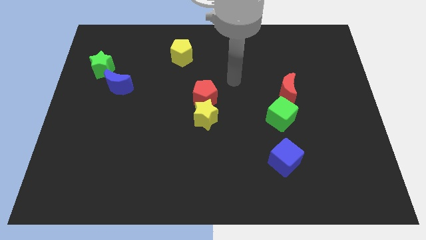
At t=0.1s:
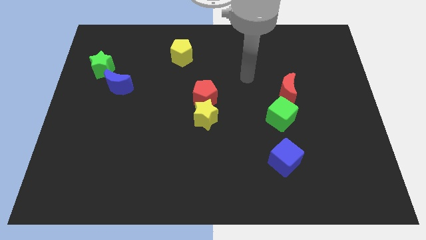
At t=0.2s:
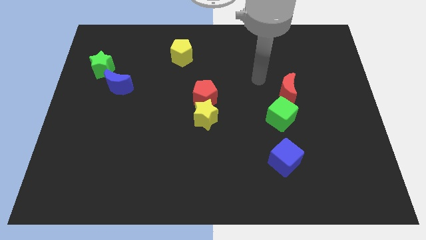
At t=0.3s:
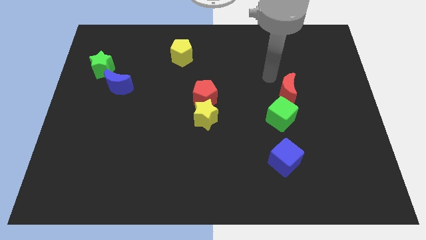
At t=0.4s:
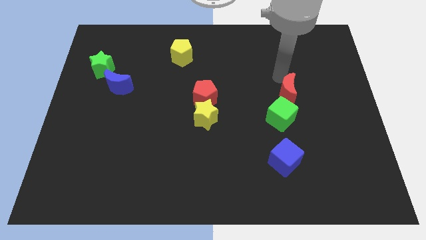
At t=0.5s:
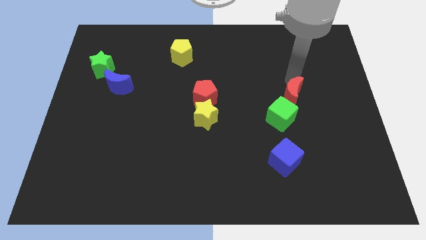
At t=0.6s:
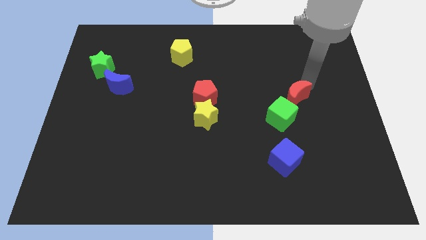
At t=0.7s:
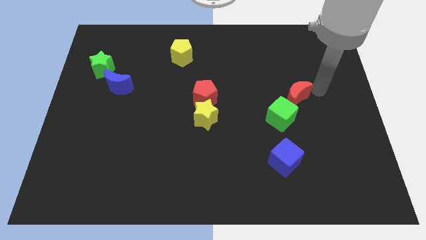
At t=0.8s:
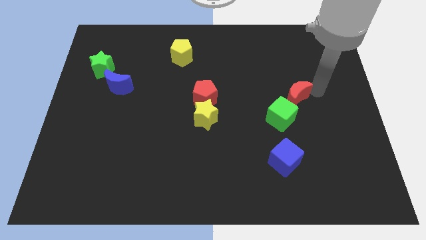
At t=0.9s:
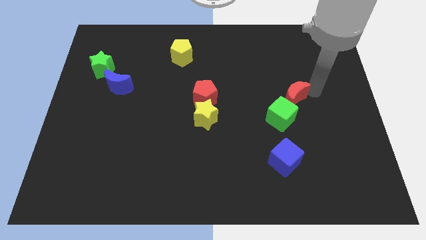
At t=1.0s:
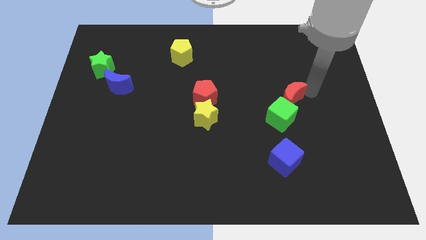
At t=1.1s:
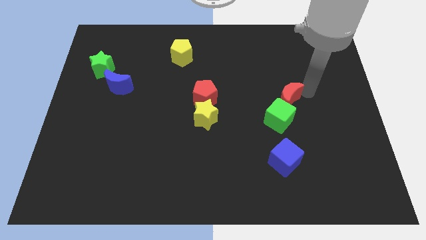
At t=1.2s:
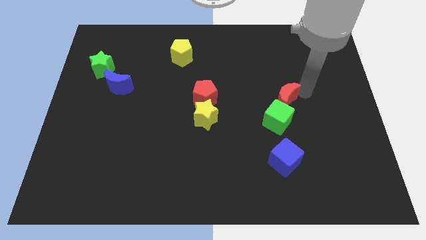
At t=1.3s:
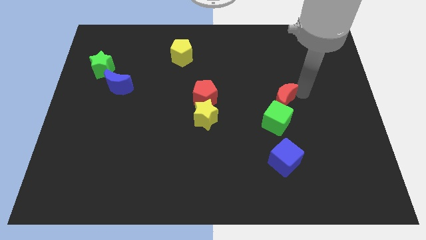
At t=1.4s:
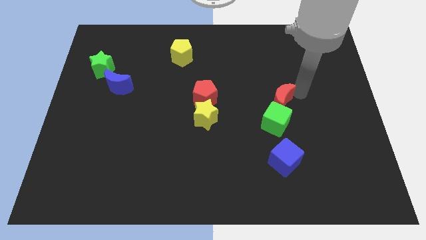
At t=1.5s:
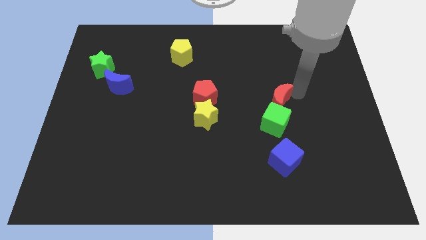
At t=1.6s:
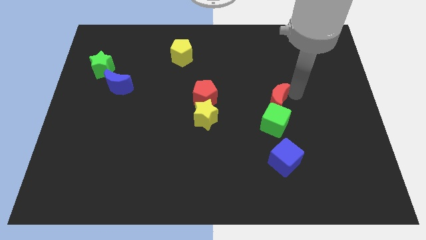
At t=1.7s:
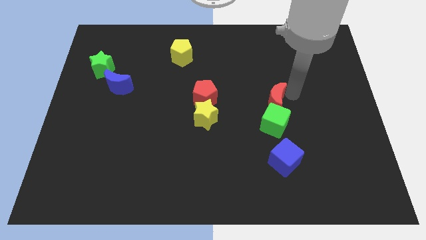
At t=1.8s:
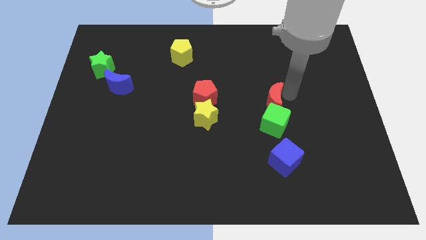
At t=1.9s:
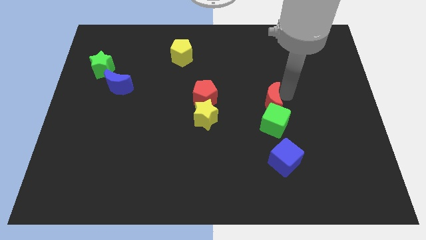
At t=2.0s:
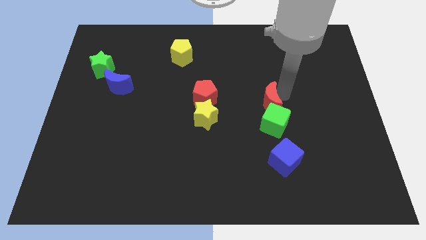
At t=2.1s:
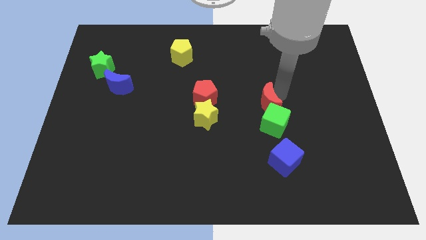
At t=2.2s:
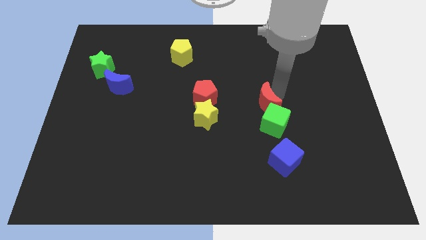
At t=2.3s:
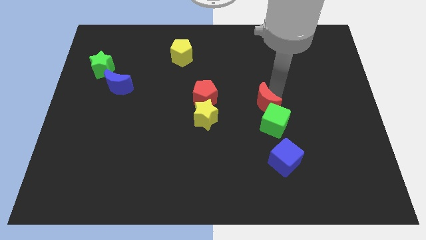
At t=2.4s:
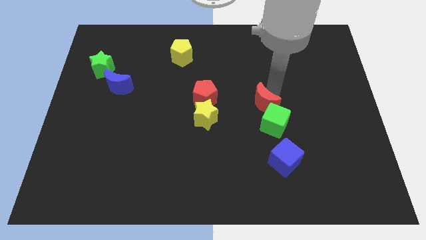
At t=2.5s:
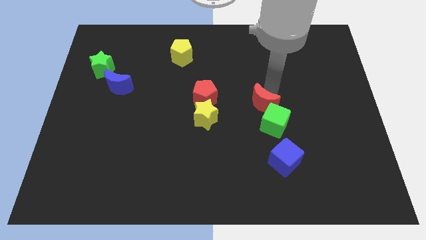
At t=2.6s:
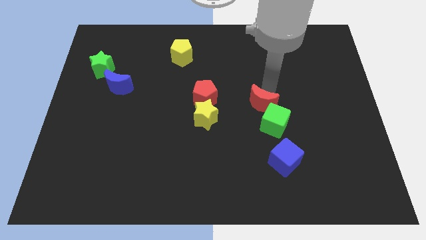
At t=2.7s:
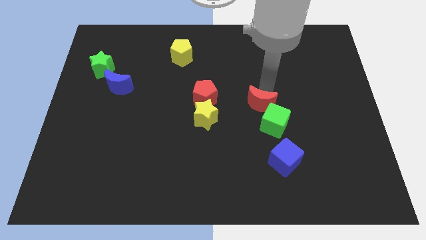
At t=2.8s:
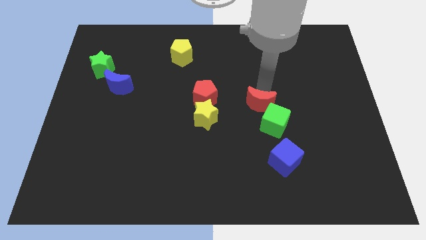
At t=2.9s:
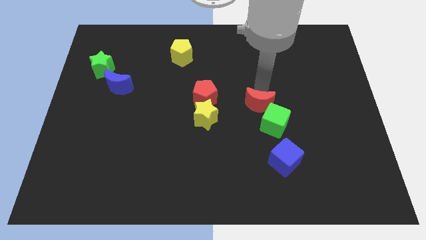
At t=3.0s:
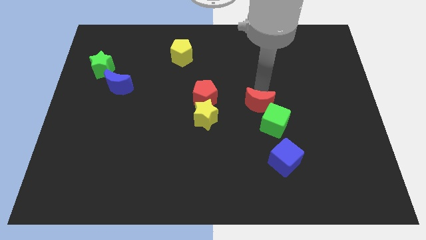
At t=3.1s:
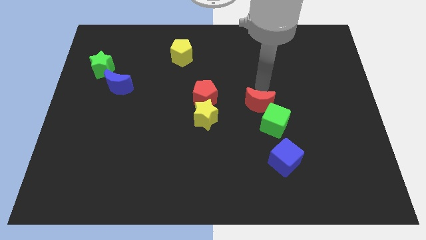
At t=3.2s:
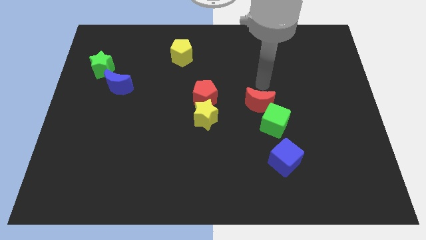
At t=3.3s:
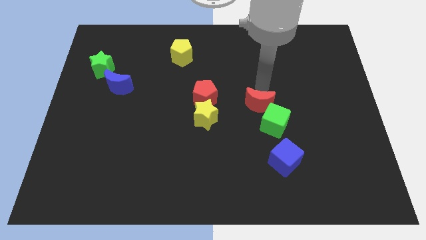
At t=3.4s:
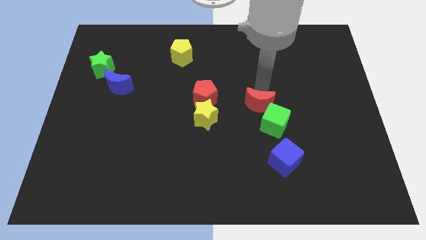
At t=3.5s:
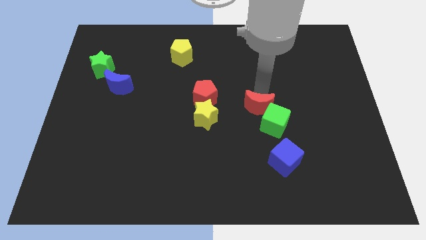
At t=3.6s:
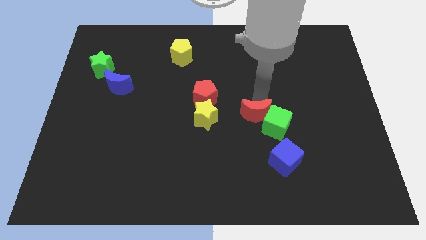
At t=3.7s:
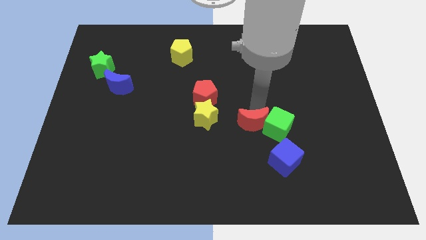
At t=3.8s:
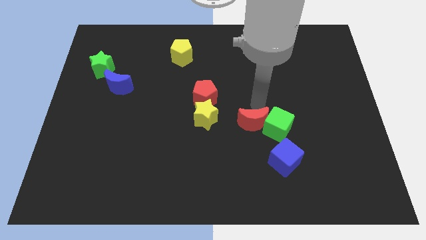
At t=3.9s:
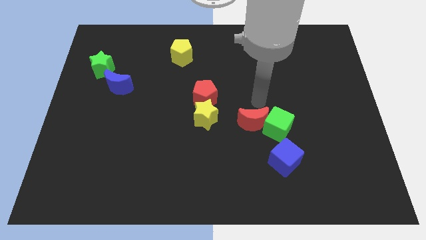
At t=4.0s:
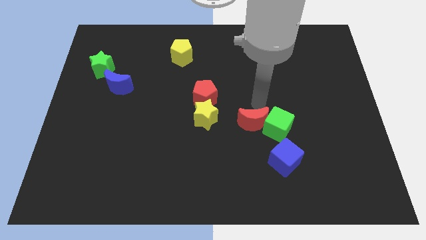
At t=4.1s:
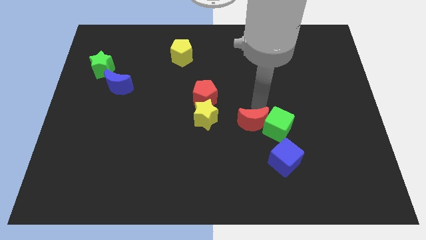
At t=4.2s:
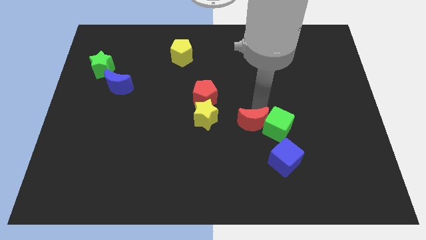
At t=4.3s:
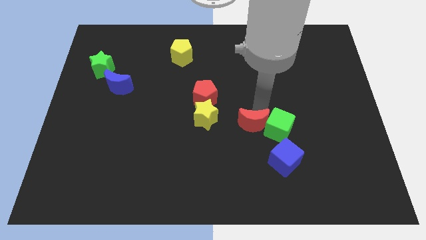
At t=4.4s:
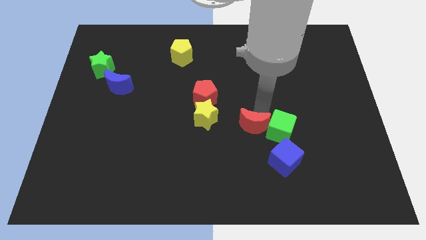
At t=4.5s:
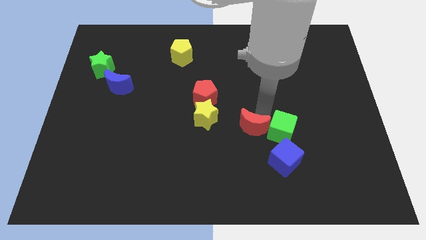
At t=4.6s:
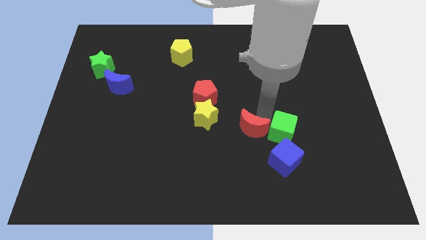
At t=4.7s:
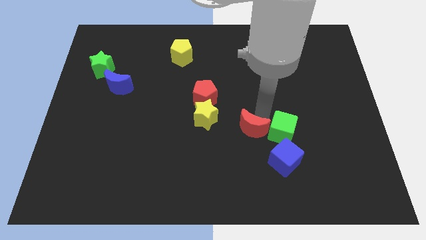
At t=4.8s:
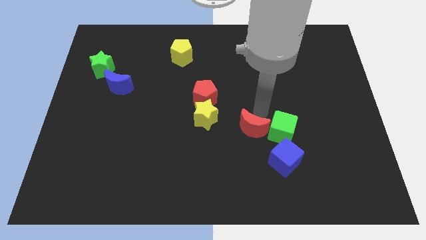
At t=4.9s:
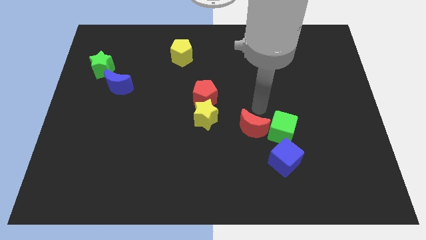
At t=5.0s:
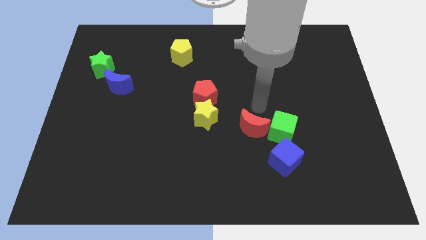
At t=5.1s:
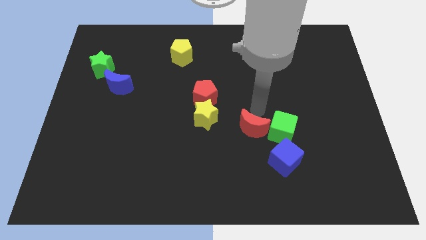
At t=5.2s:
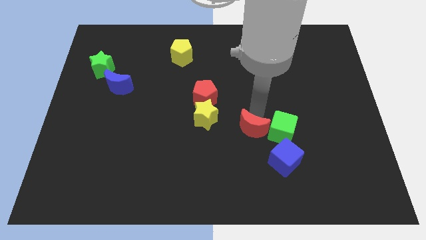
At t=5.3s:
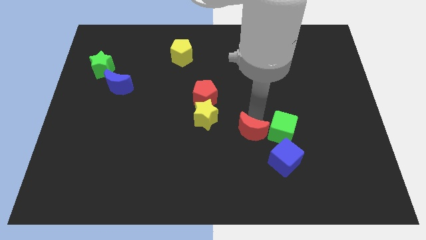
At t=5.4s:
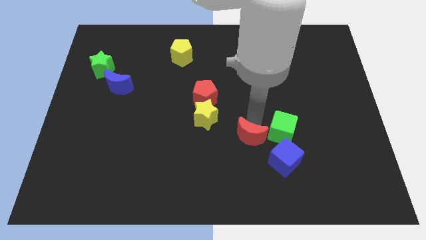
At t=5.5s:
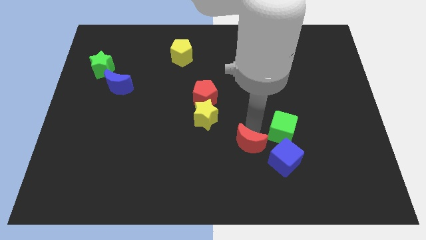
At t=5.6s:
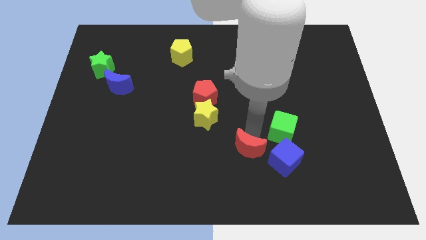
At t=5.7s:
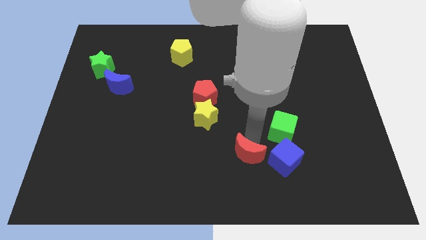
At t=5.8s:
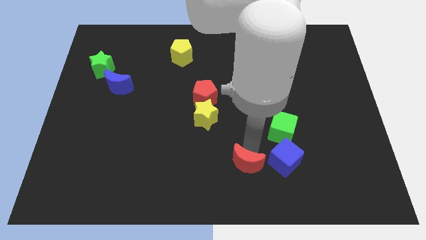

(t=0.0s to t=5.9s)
move the red moon to the bottom side

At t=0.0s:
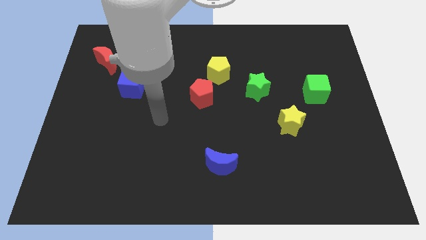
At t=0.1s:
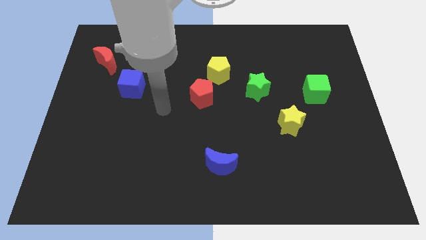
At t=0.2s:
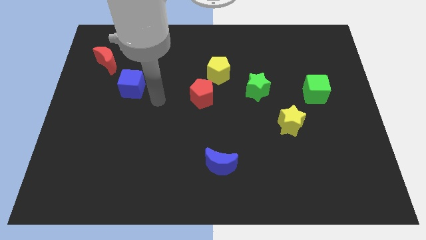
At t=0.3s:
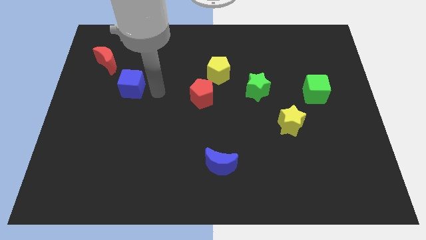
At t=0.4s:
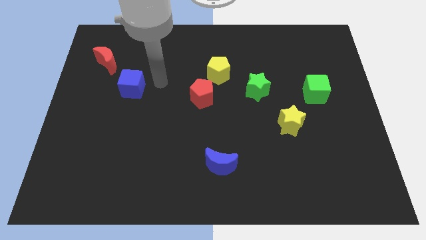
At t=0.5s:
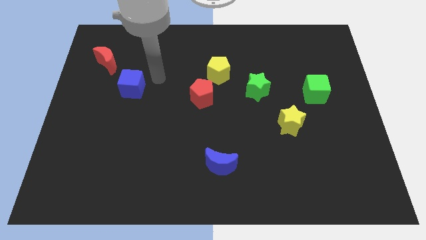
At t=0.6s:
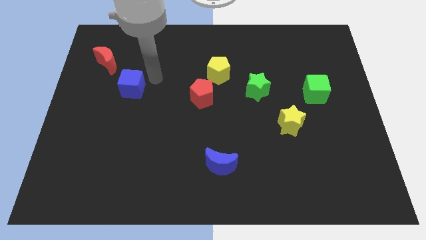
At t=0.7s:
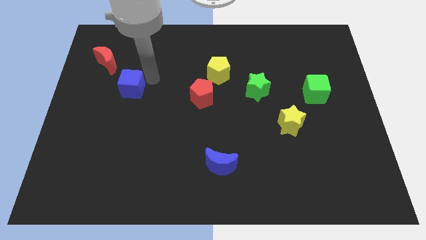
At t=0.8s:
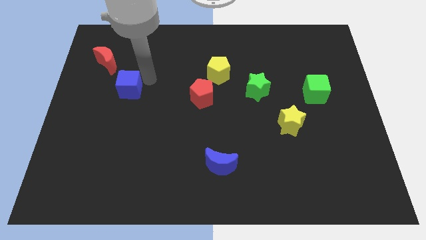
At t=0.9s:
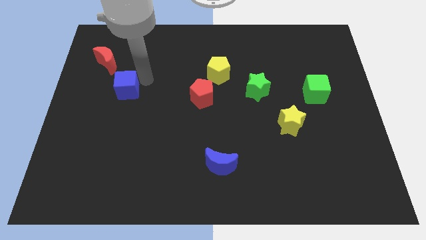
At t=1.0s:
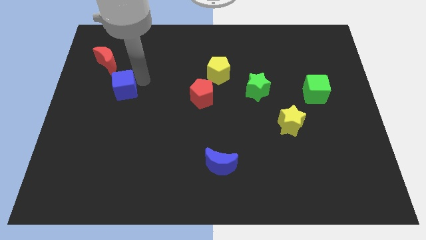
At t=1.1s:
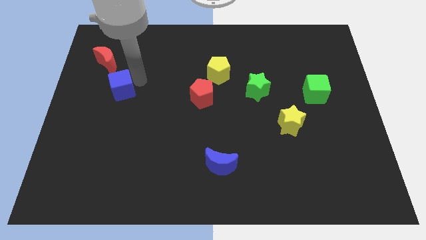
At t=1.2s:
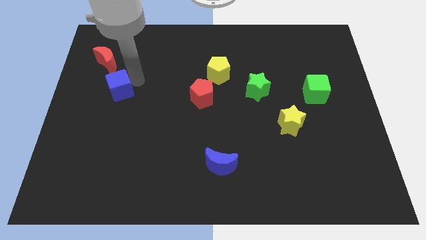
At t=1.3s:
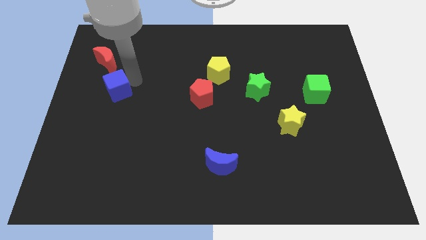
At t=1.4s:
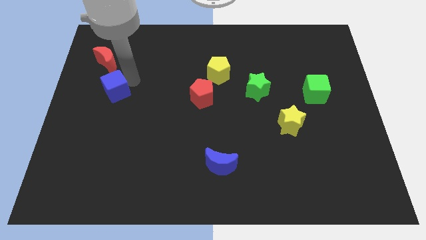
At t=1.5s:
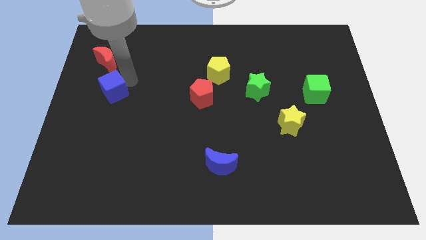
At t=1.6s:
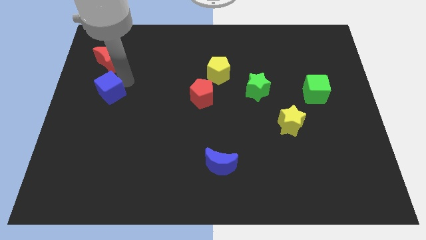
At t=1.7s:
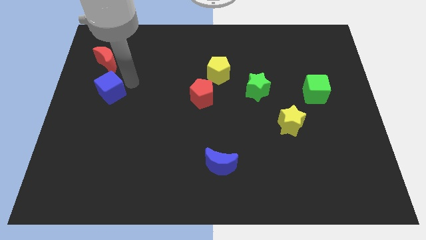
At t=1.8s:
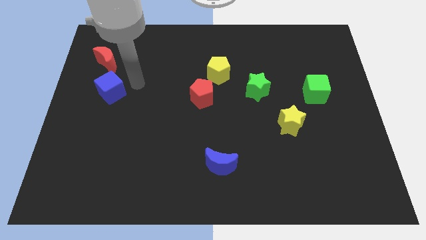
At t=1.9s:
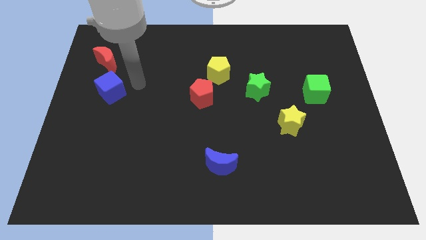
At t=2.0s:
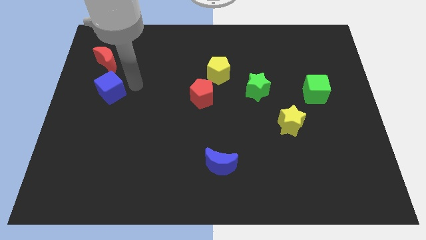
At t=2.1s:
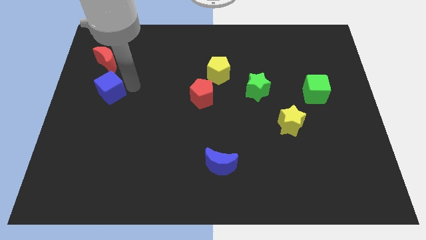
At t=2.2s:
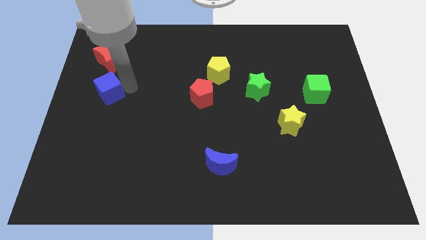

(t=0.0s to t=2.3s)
slide the blue cube to the left side
